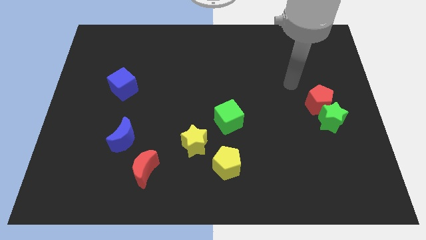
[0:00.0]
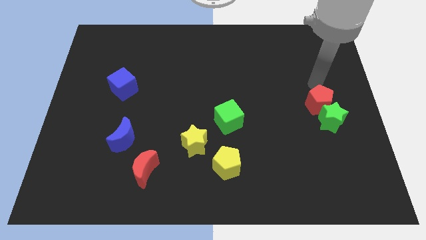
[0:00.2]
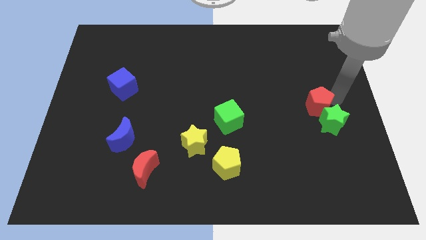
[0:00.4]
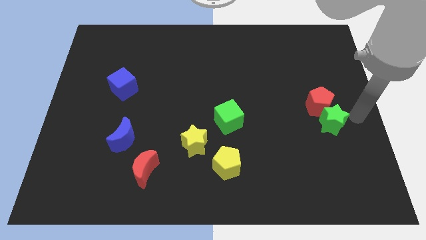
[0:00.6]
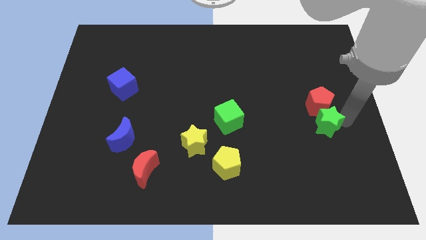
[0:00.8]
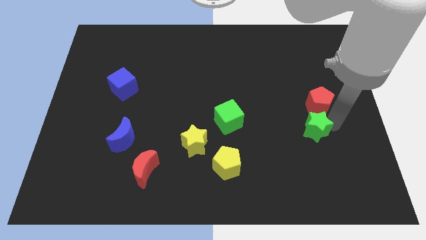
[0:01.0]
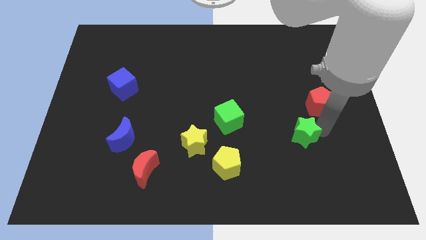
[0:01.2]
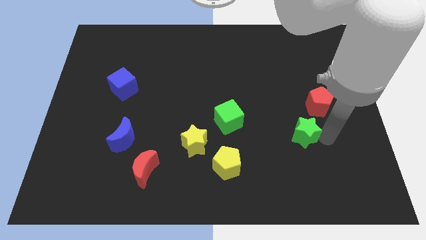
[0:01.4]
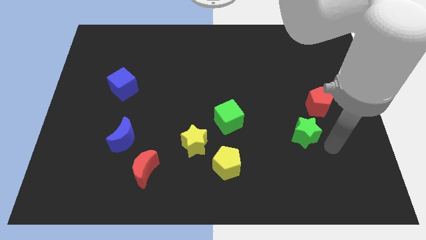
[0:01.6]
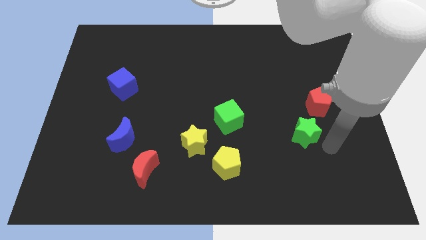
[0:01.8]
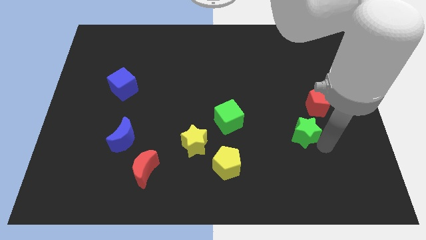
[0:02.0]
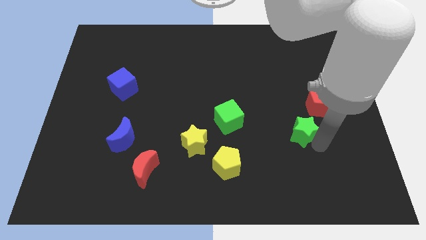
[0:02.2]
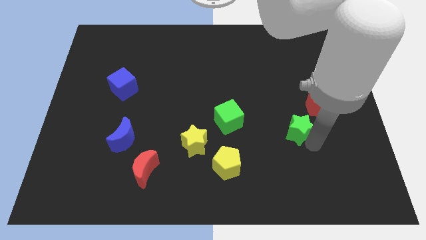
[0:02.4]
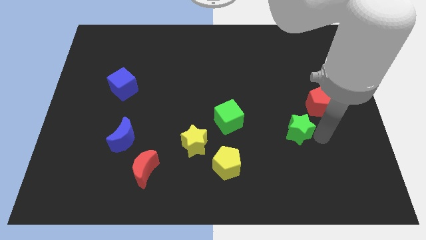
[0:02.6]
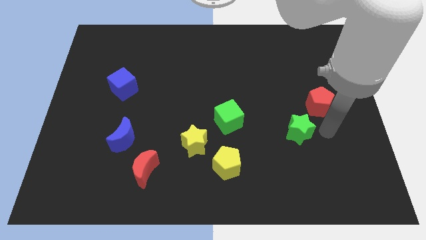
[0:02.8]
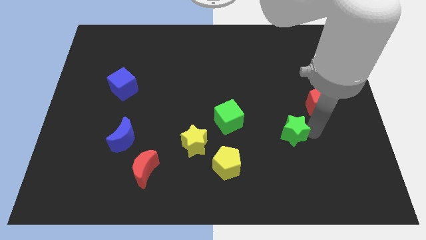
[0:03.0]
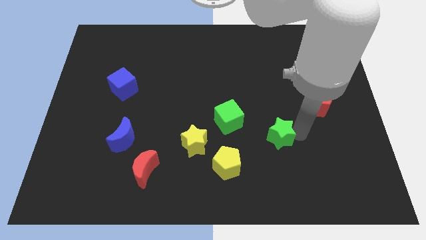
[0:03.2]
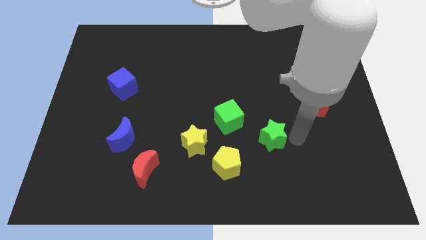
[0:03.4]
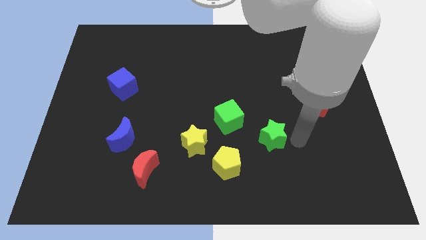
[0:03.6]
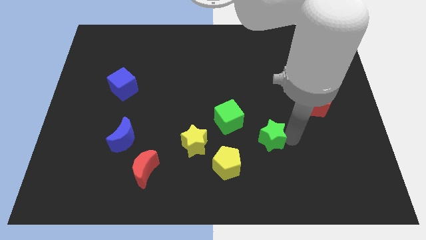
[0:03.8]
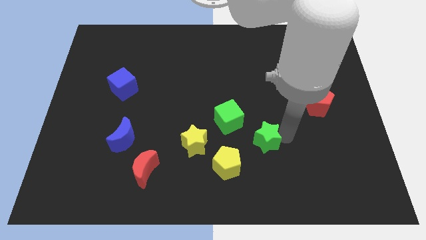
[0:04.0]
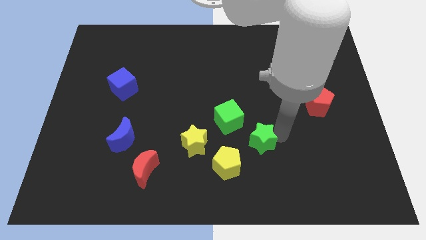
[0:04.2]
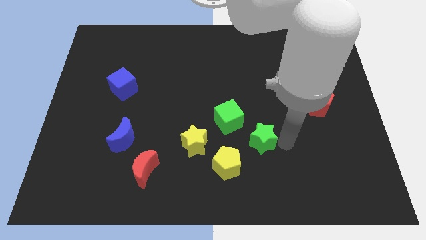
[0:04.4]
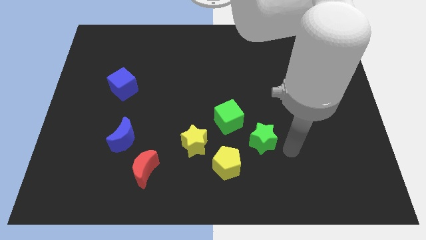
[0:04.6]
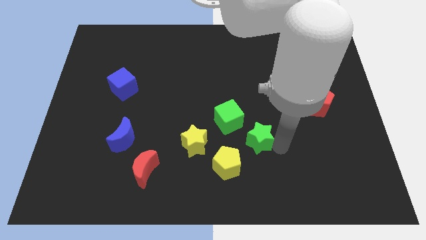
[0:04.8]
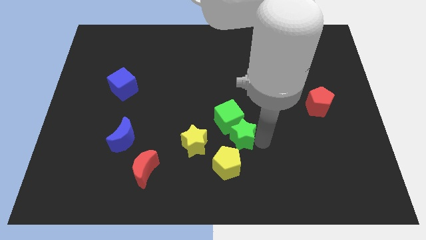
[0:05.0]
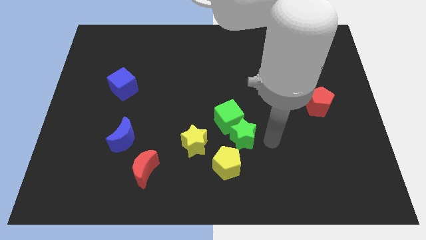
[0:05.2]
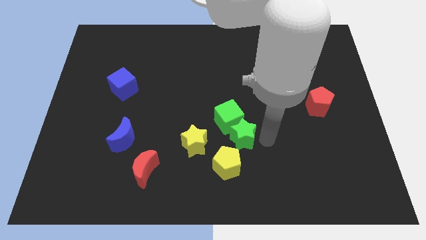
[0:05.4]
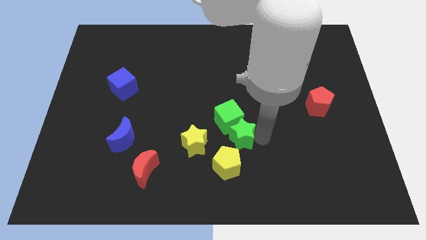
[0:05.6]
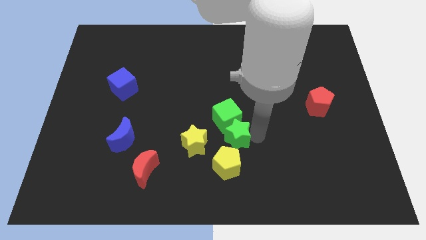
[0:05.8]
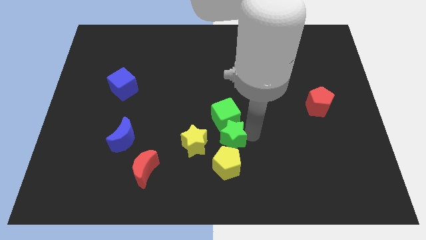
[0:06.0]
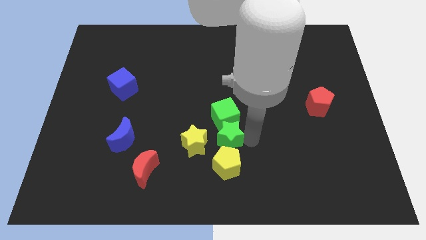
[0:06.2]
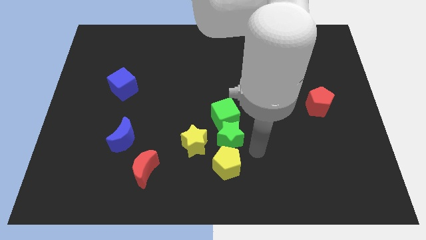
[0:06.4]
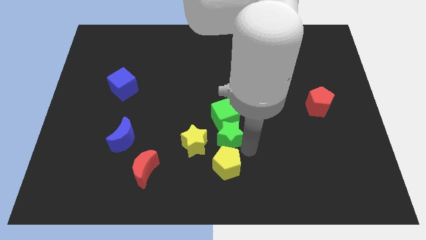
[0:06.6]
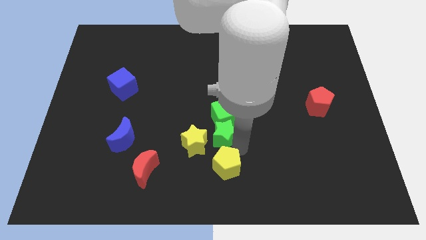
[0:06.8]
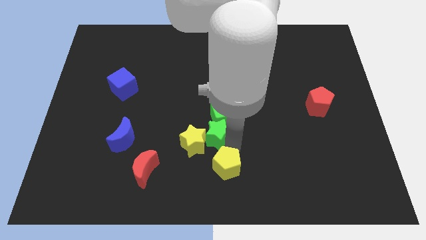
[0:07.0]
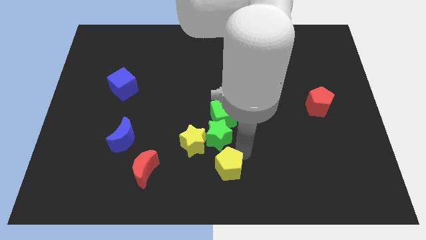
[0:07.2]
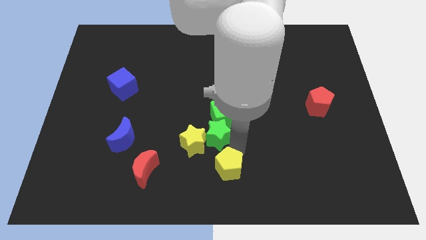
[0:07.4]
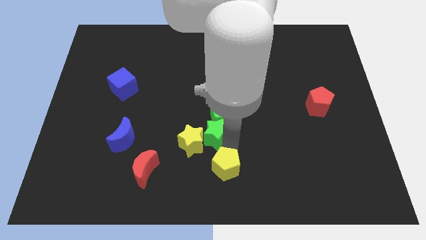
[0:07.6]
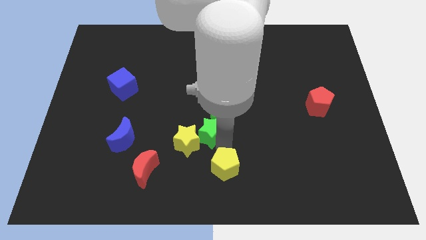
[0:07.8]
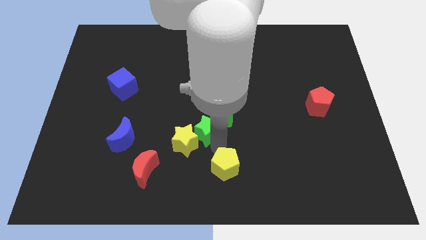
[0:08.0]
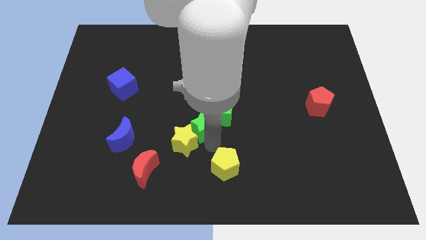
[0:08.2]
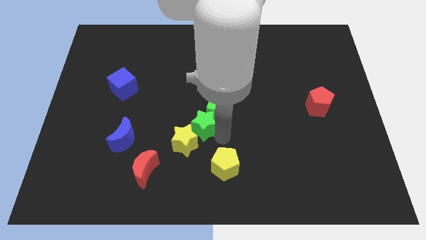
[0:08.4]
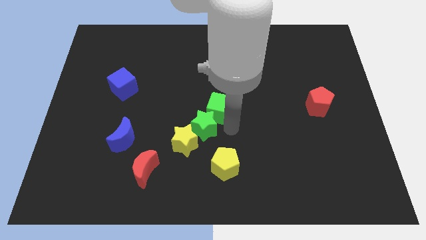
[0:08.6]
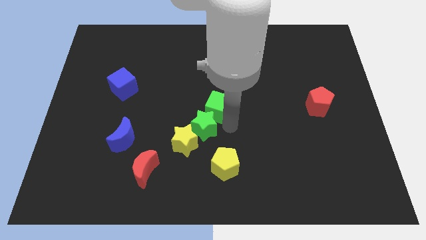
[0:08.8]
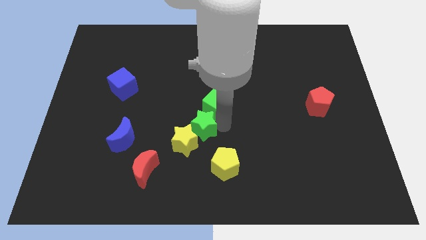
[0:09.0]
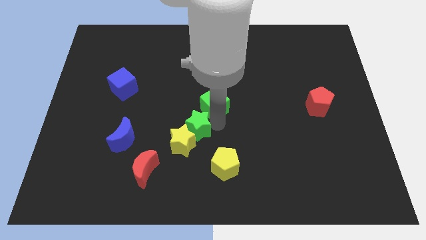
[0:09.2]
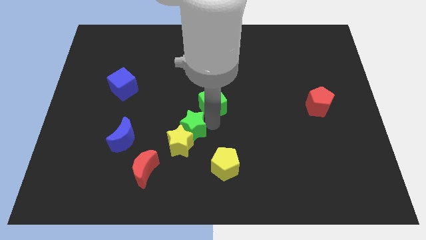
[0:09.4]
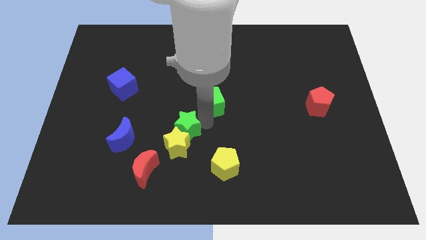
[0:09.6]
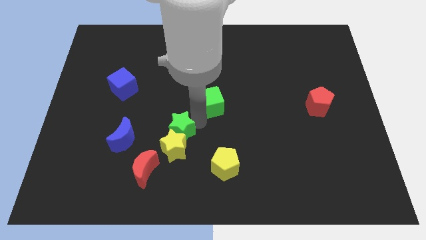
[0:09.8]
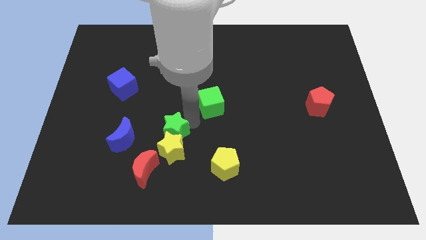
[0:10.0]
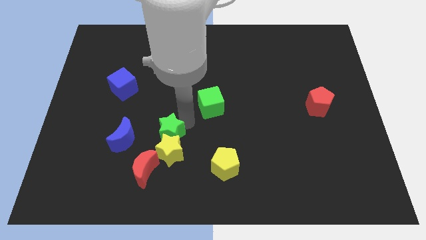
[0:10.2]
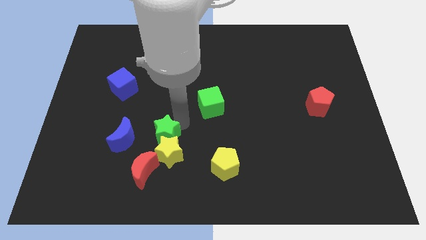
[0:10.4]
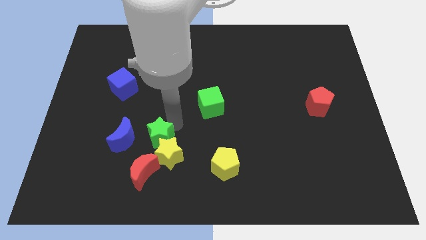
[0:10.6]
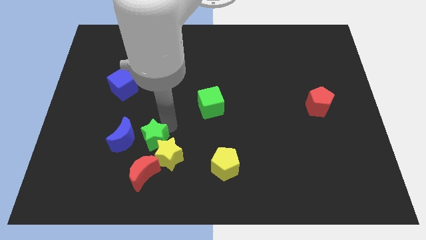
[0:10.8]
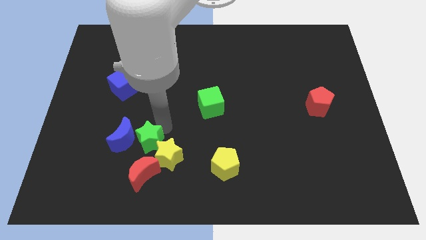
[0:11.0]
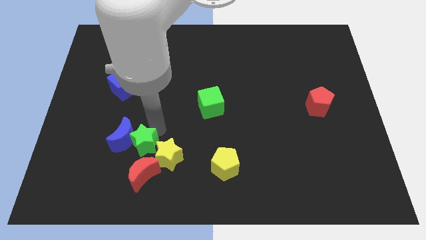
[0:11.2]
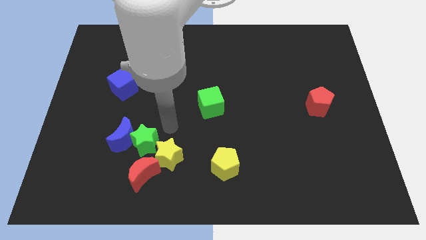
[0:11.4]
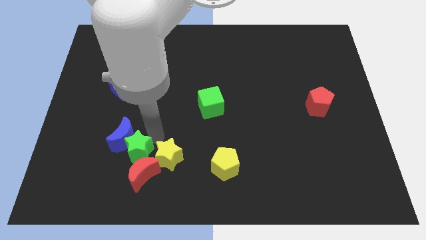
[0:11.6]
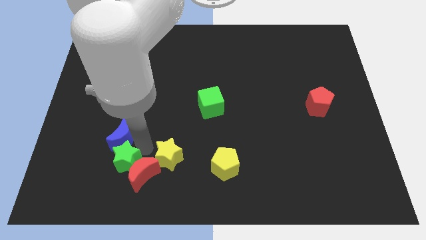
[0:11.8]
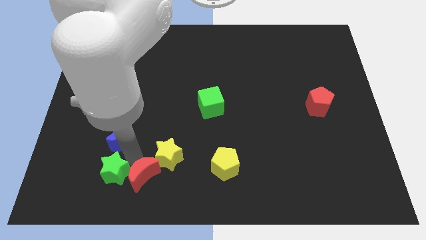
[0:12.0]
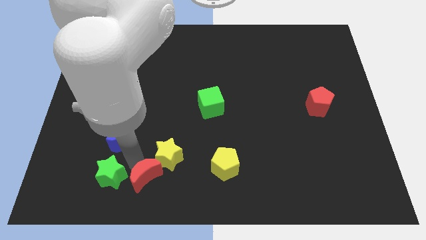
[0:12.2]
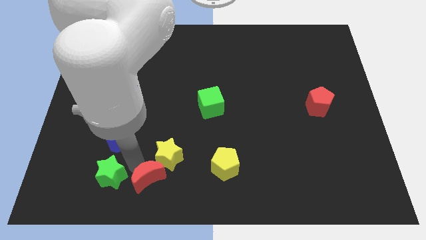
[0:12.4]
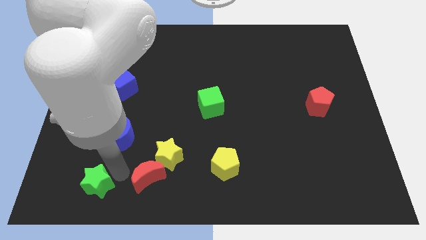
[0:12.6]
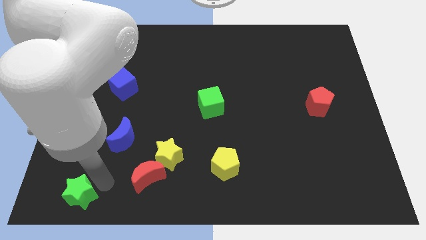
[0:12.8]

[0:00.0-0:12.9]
slide the green star to the bottom left

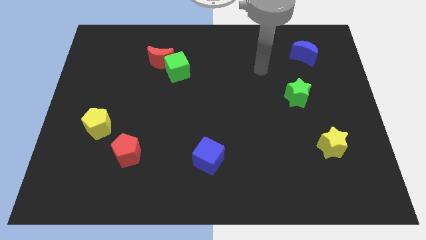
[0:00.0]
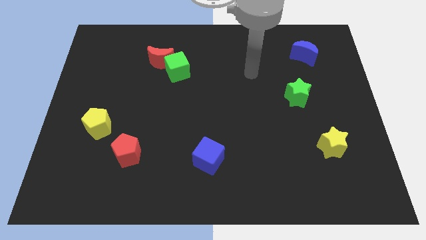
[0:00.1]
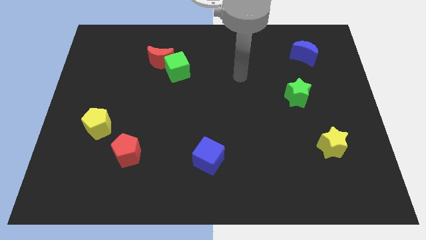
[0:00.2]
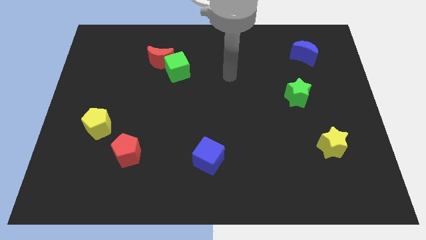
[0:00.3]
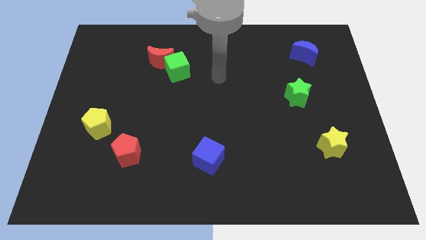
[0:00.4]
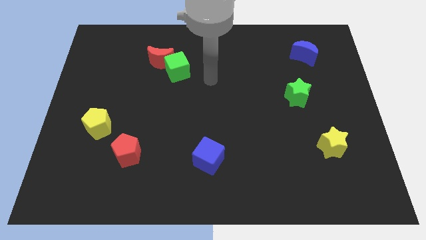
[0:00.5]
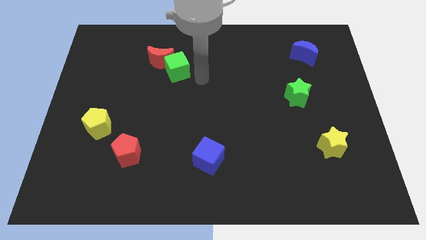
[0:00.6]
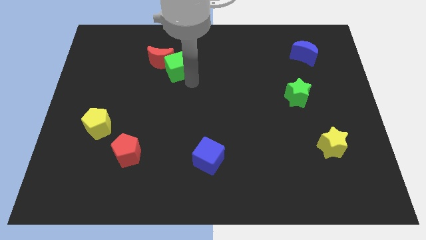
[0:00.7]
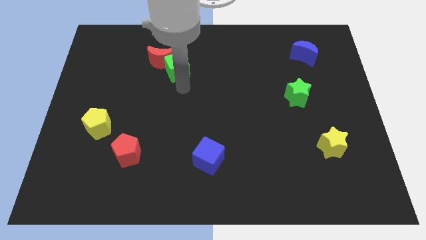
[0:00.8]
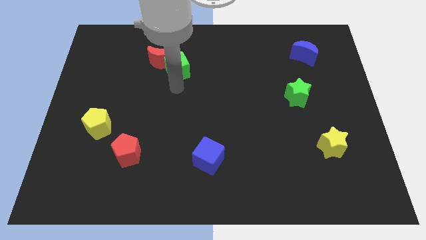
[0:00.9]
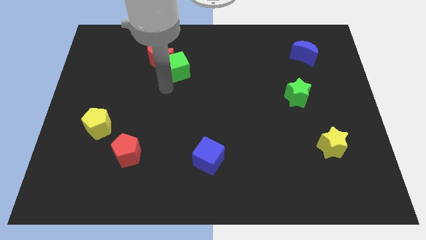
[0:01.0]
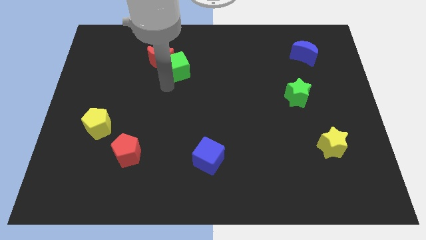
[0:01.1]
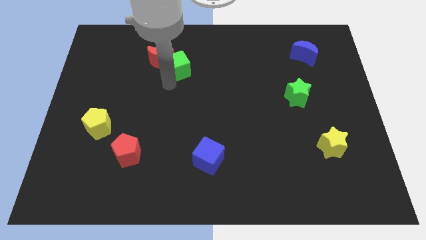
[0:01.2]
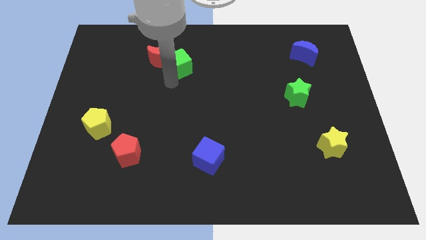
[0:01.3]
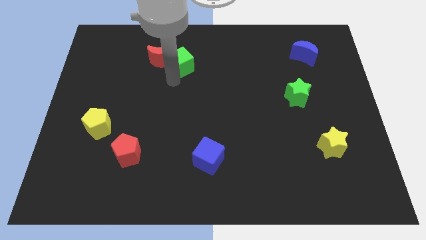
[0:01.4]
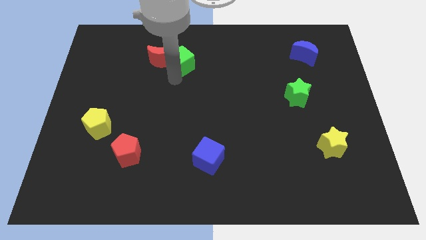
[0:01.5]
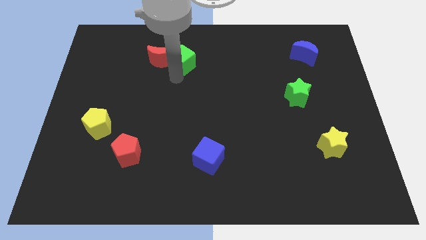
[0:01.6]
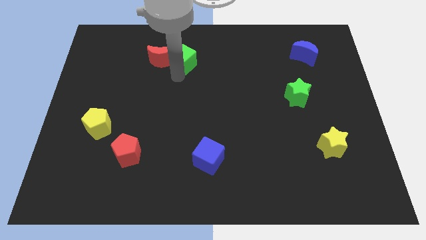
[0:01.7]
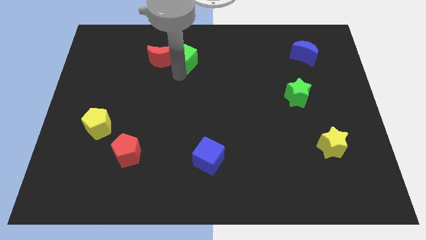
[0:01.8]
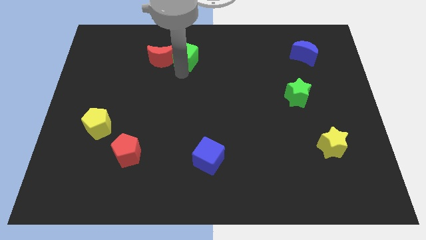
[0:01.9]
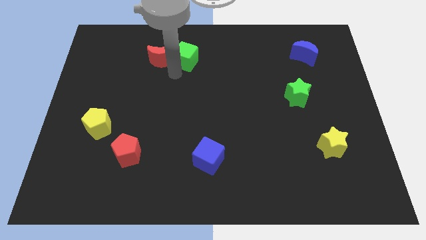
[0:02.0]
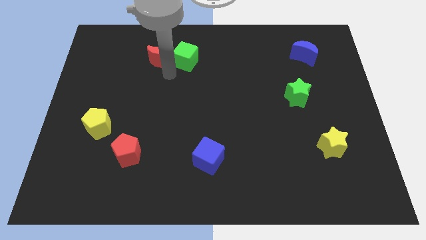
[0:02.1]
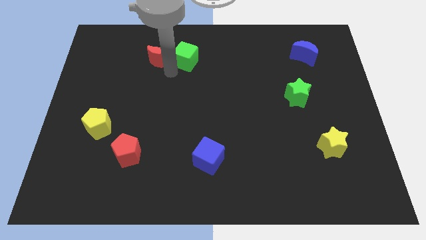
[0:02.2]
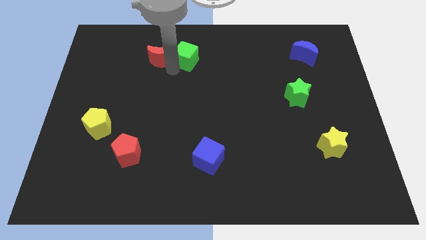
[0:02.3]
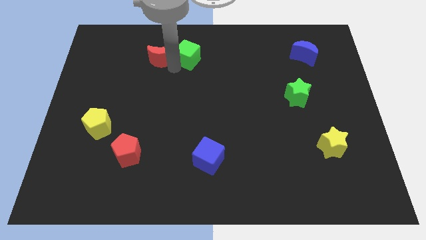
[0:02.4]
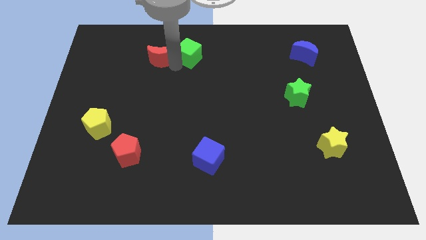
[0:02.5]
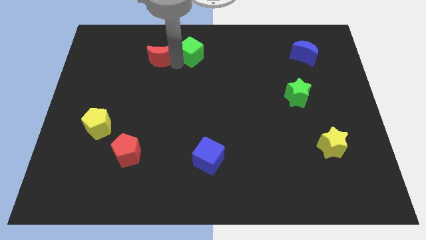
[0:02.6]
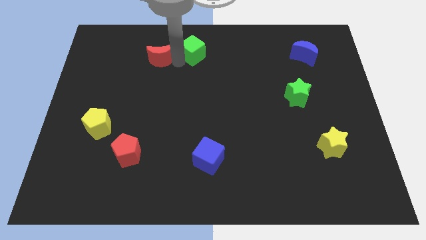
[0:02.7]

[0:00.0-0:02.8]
slide the green cube to the top
